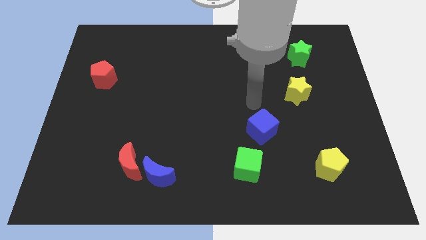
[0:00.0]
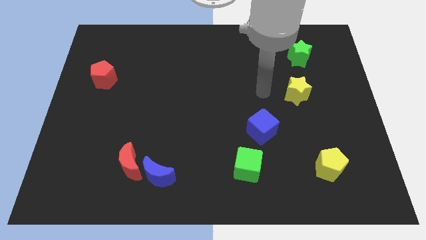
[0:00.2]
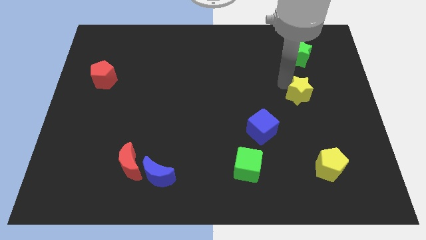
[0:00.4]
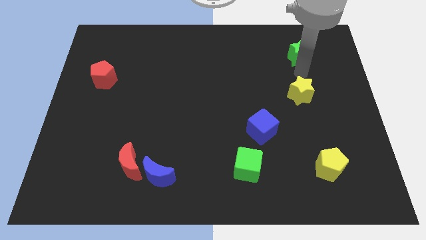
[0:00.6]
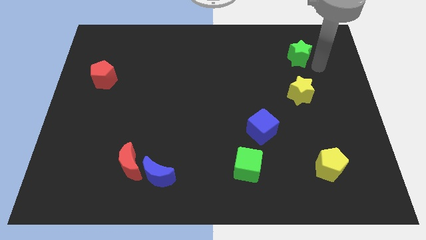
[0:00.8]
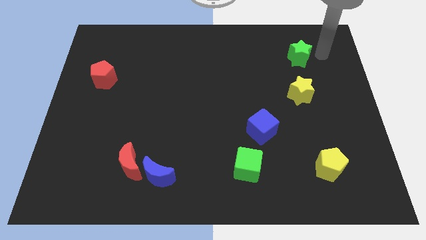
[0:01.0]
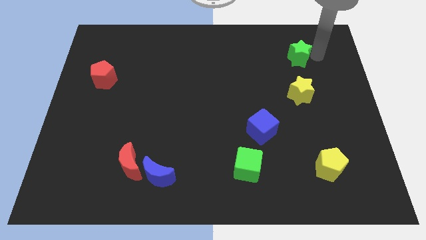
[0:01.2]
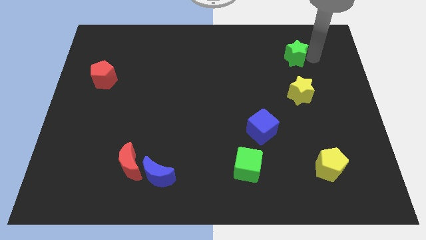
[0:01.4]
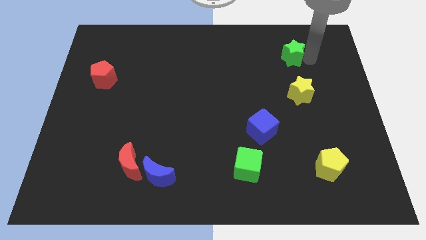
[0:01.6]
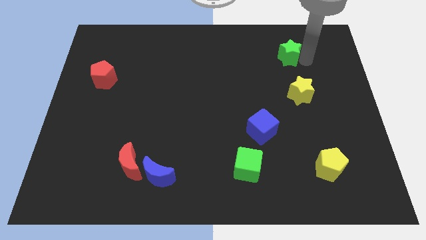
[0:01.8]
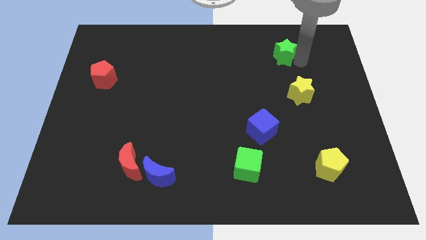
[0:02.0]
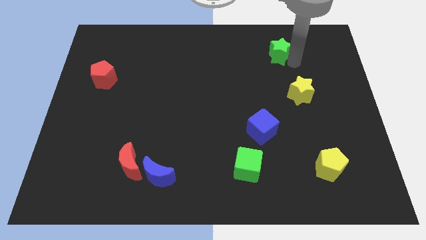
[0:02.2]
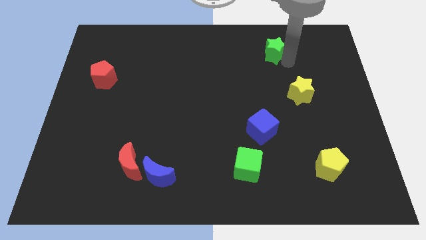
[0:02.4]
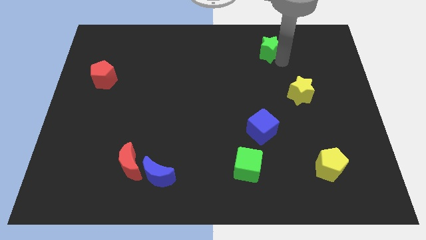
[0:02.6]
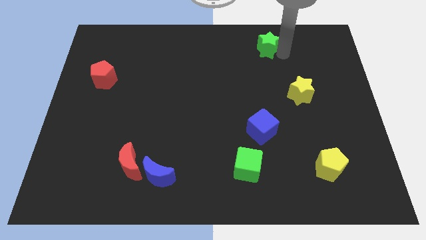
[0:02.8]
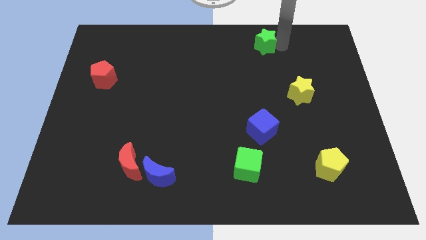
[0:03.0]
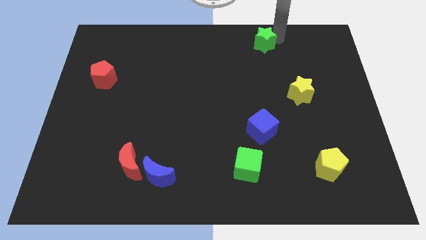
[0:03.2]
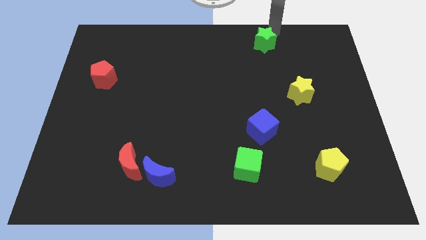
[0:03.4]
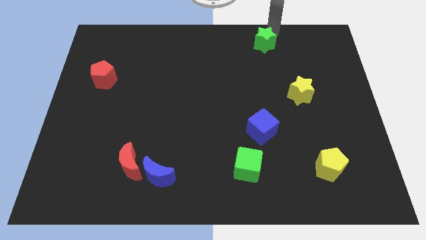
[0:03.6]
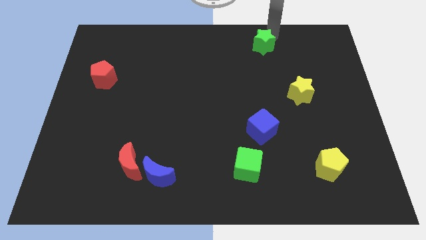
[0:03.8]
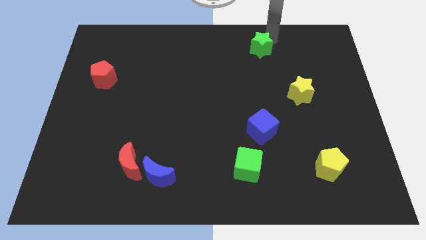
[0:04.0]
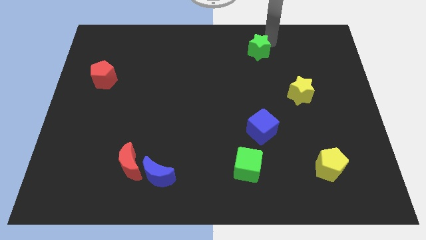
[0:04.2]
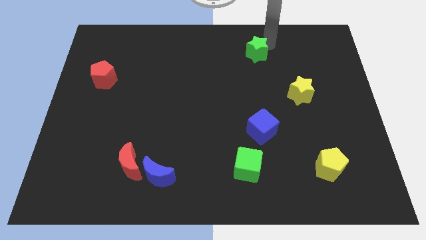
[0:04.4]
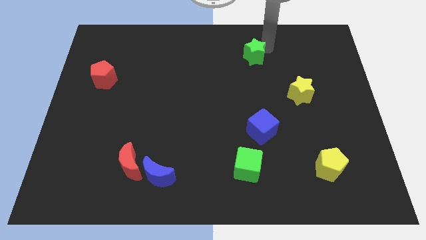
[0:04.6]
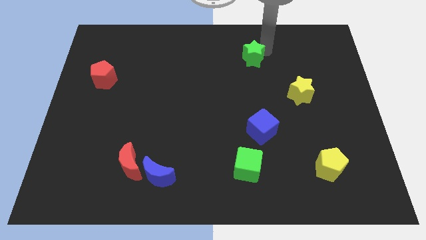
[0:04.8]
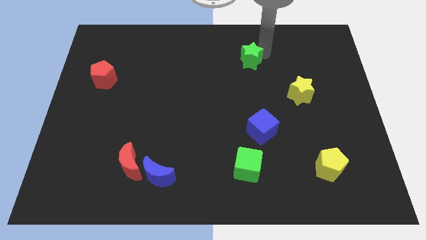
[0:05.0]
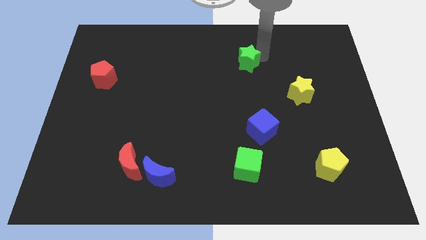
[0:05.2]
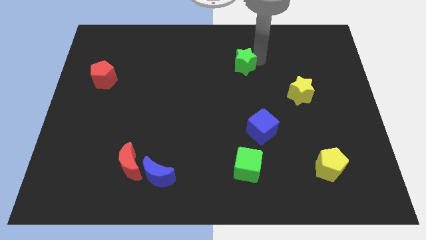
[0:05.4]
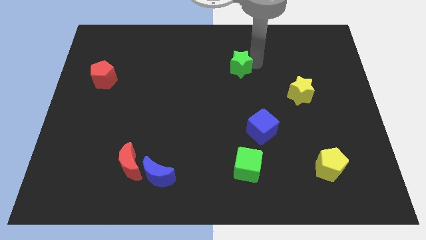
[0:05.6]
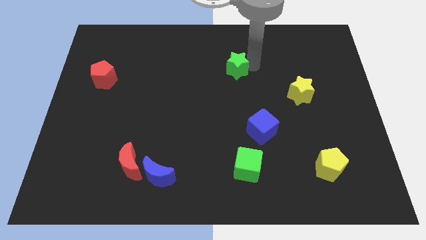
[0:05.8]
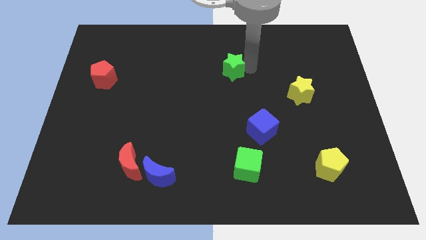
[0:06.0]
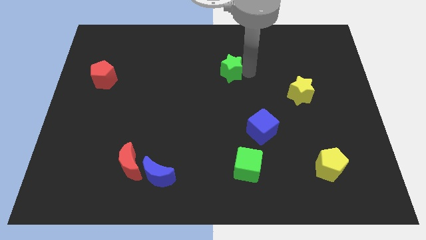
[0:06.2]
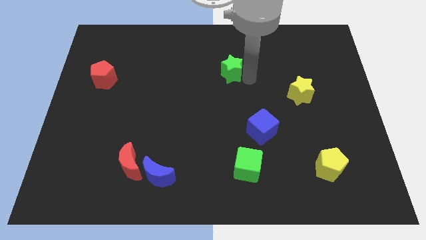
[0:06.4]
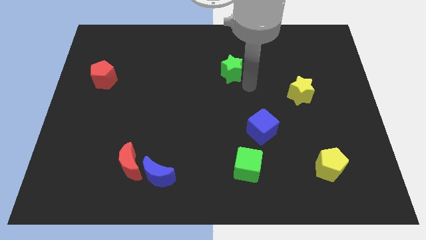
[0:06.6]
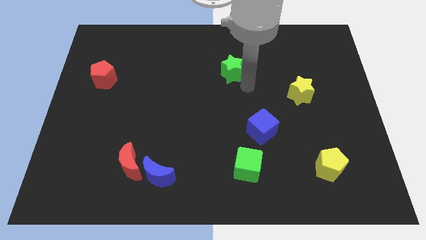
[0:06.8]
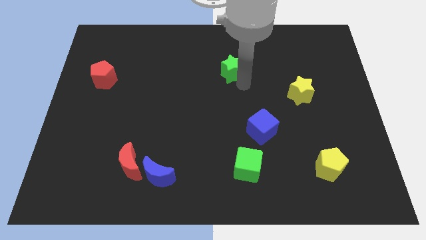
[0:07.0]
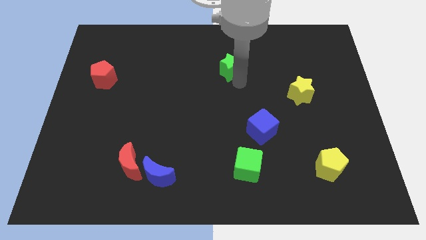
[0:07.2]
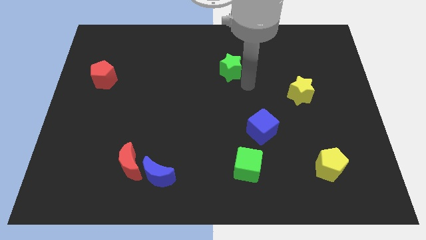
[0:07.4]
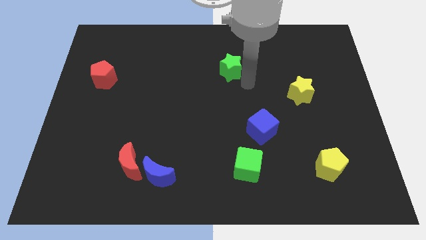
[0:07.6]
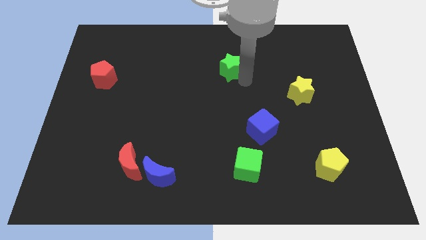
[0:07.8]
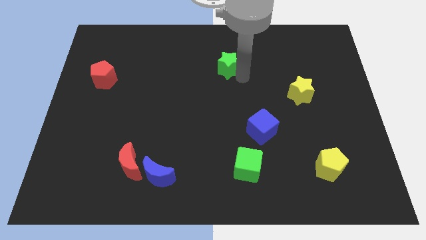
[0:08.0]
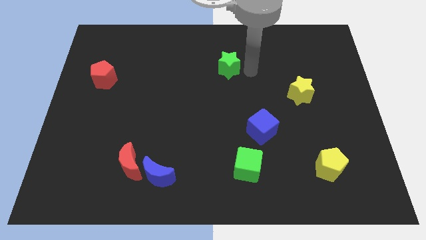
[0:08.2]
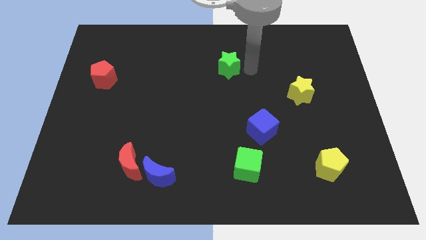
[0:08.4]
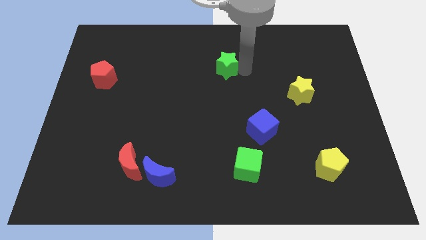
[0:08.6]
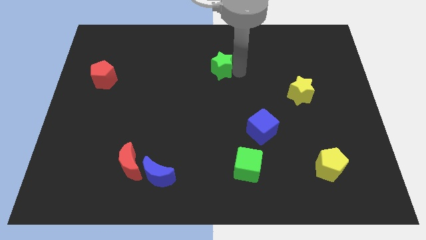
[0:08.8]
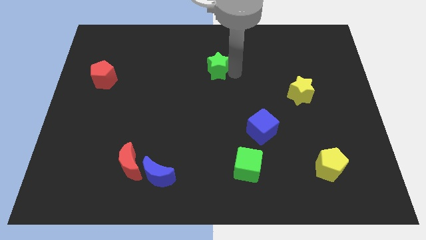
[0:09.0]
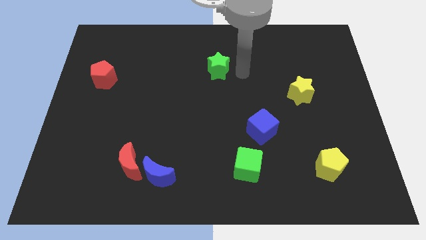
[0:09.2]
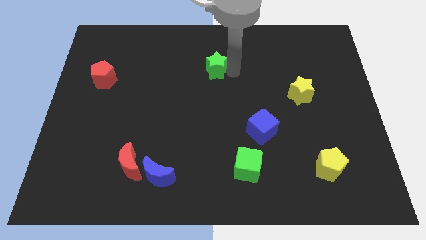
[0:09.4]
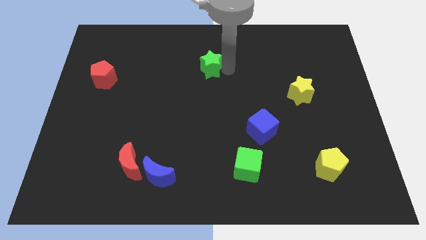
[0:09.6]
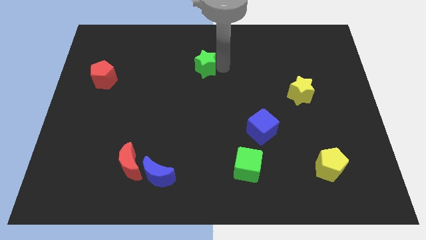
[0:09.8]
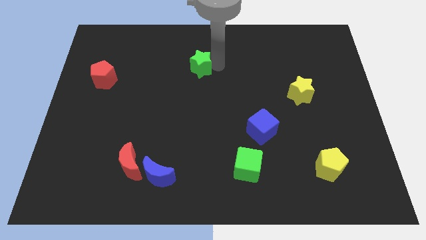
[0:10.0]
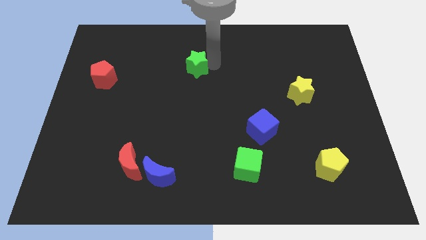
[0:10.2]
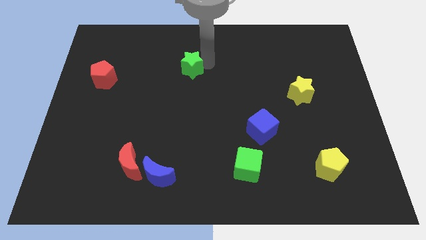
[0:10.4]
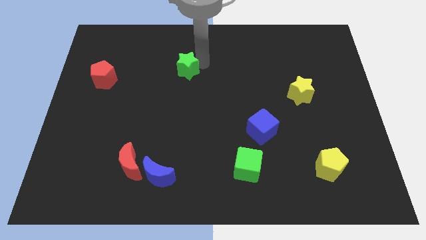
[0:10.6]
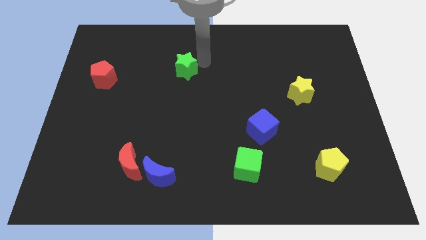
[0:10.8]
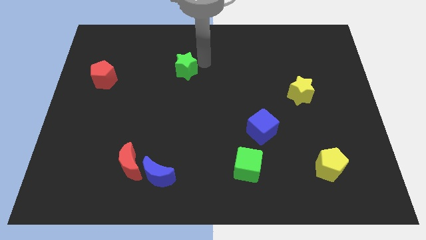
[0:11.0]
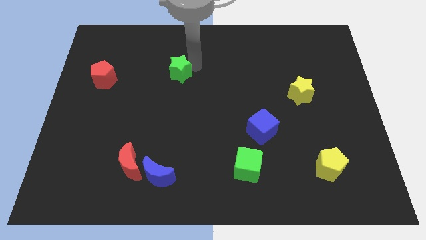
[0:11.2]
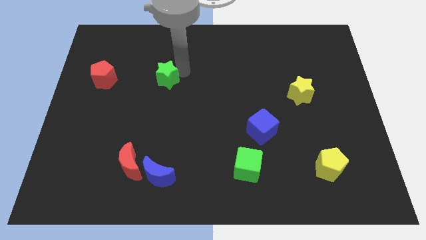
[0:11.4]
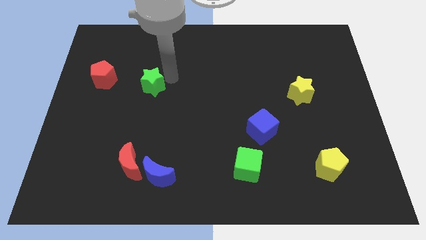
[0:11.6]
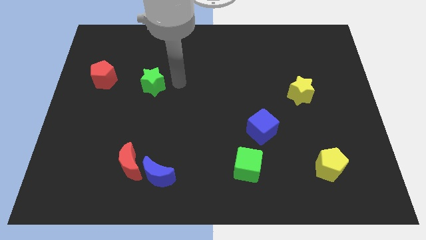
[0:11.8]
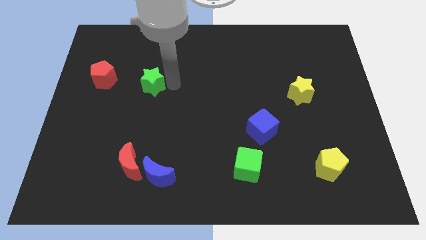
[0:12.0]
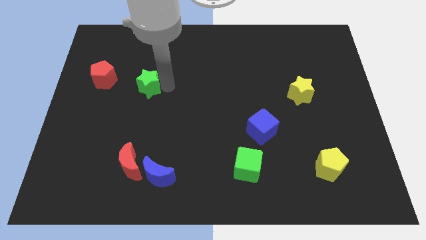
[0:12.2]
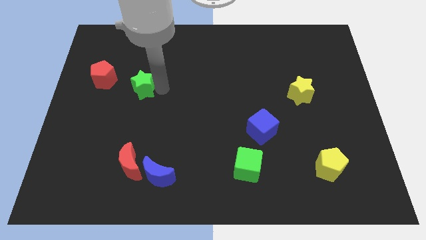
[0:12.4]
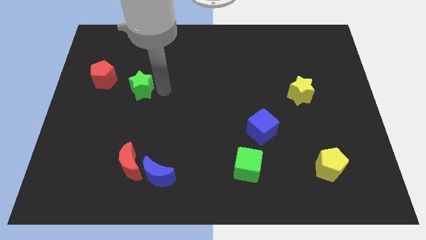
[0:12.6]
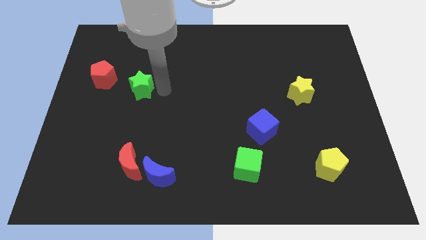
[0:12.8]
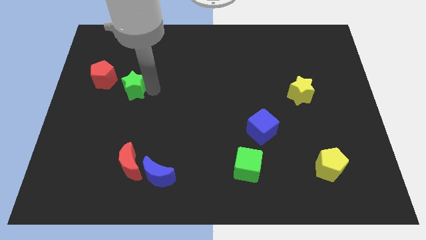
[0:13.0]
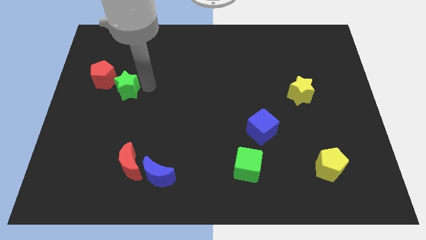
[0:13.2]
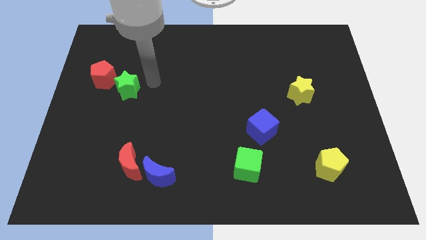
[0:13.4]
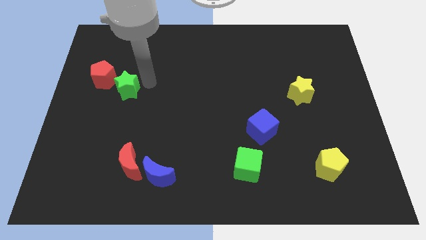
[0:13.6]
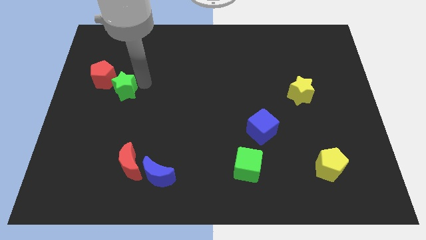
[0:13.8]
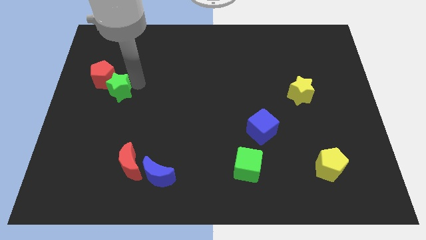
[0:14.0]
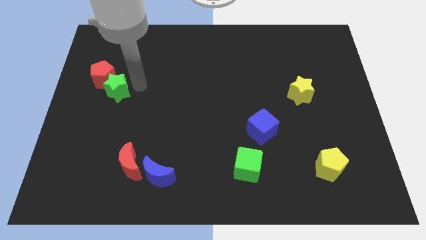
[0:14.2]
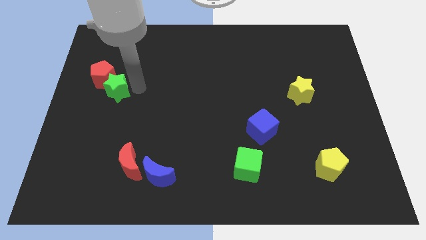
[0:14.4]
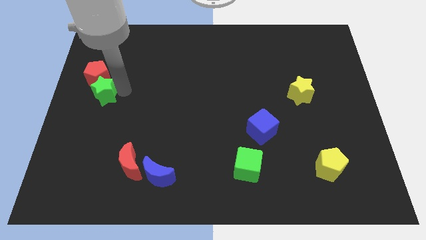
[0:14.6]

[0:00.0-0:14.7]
put the green star to the center left
